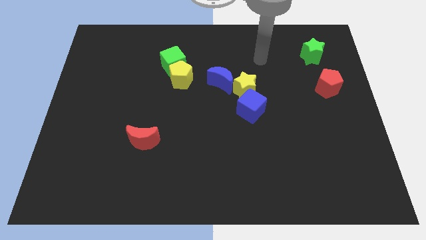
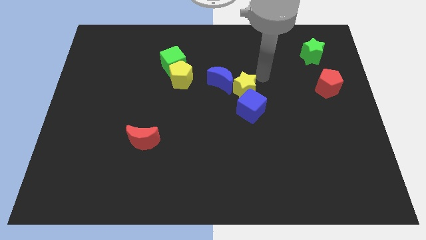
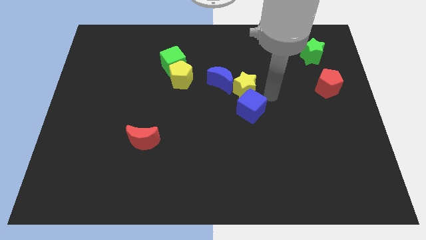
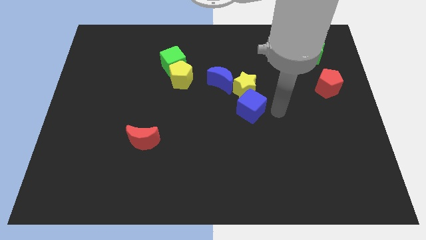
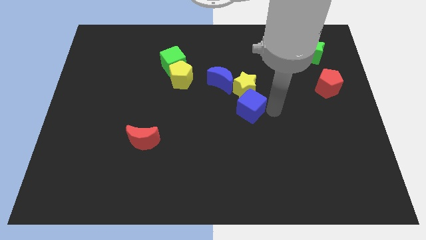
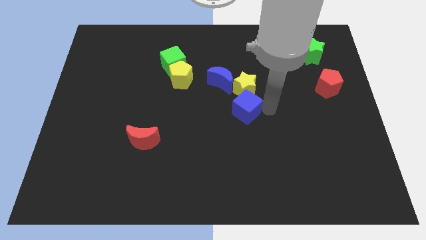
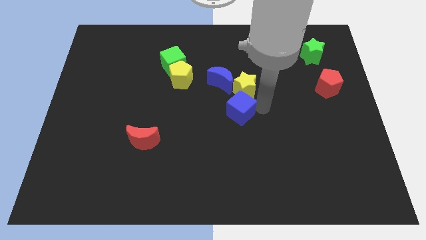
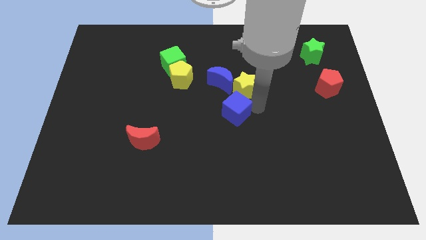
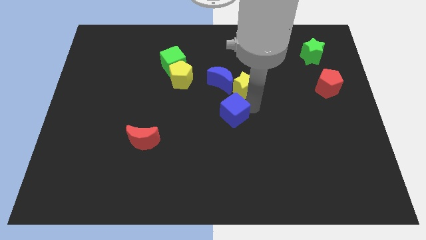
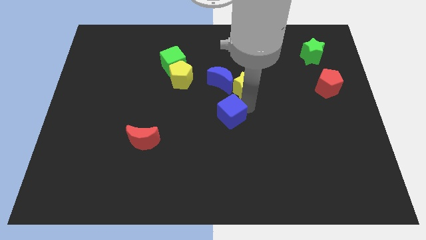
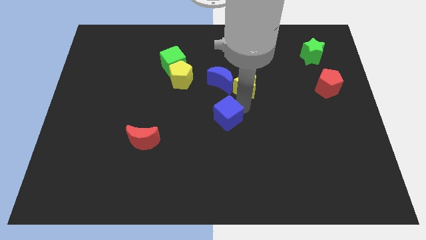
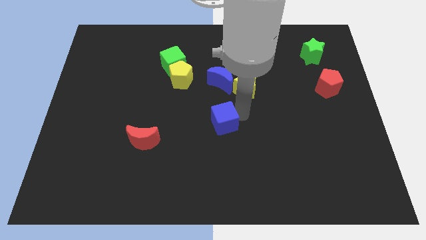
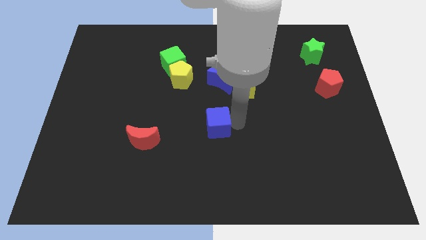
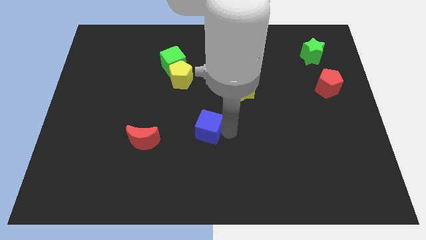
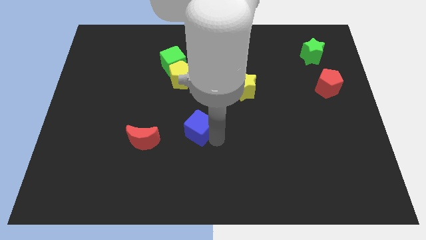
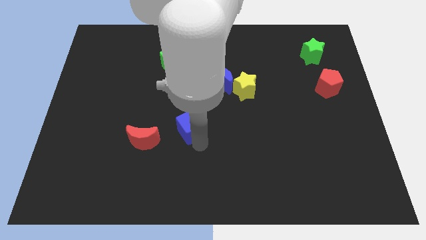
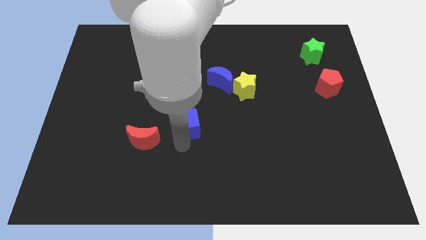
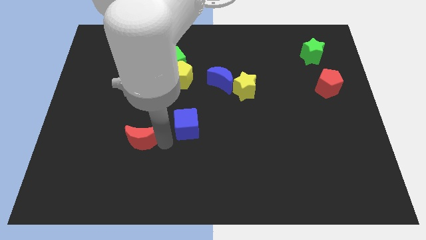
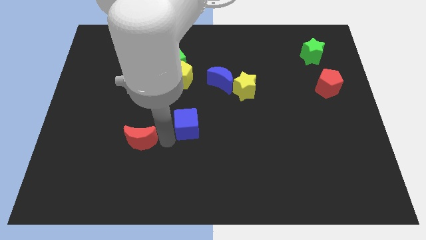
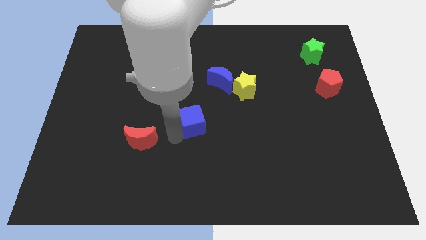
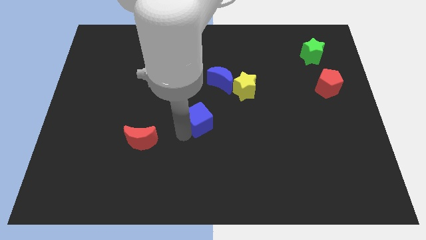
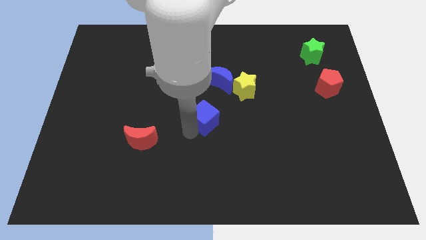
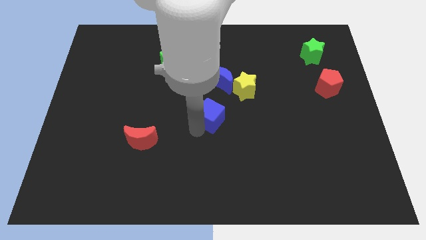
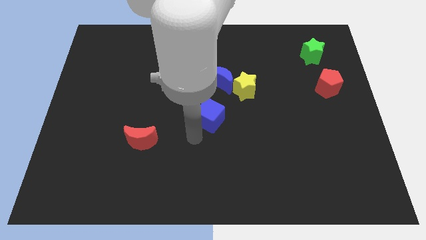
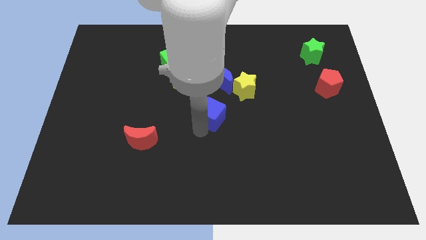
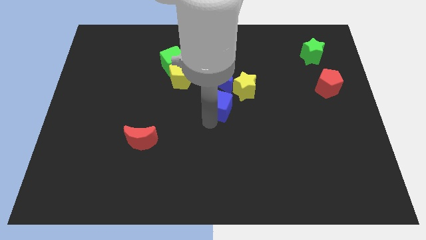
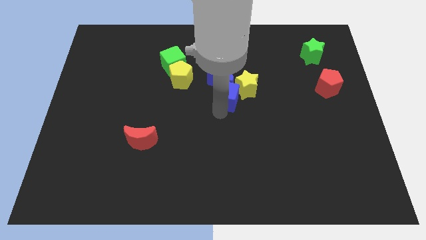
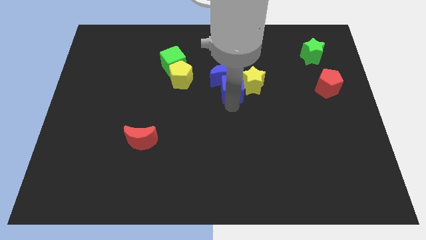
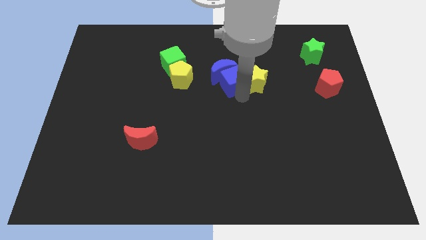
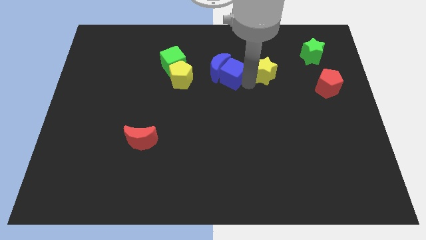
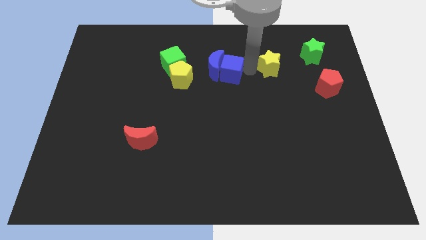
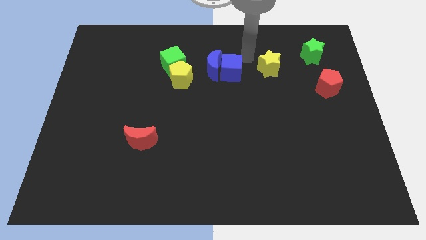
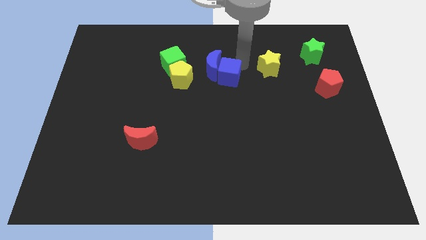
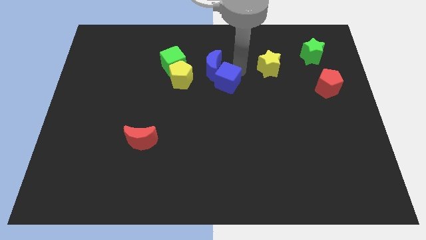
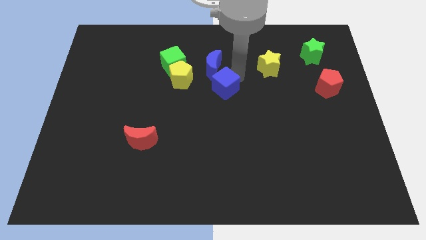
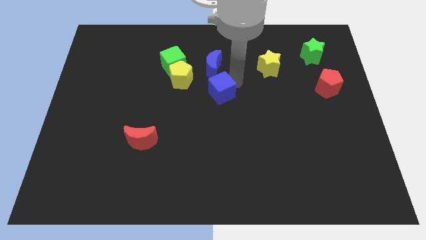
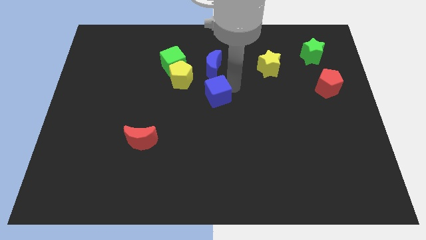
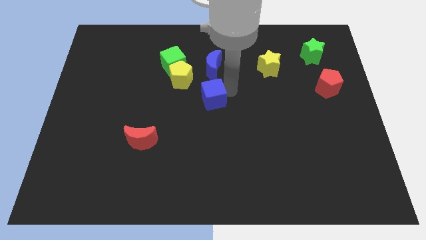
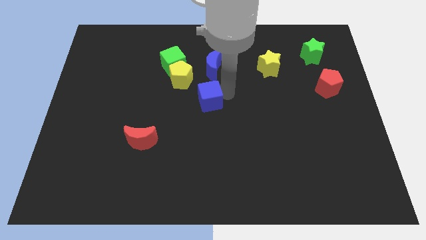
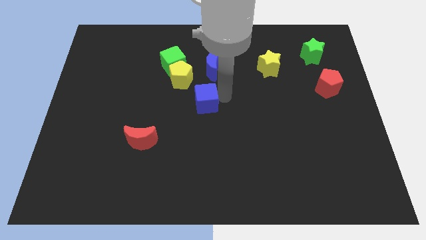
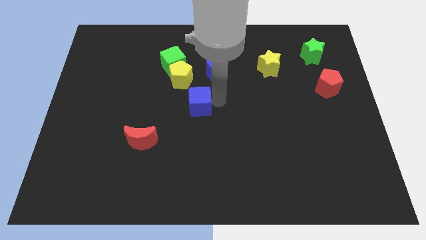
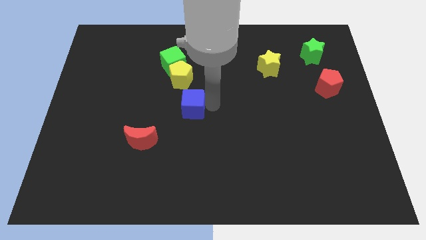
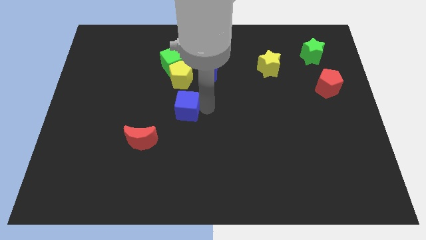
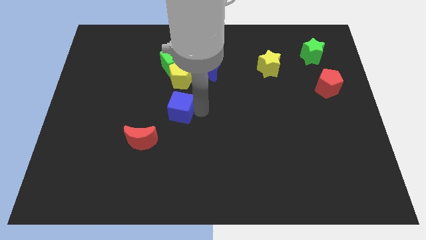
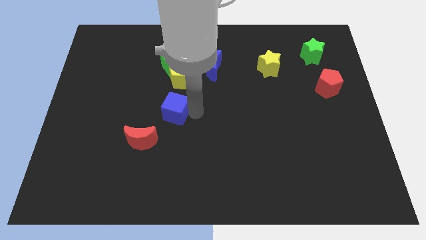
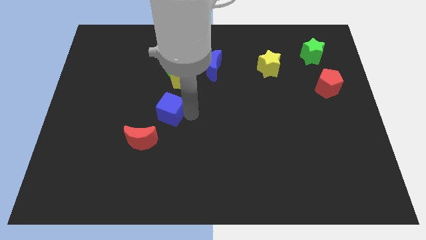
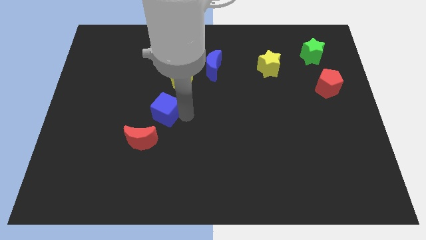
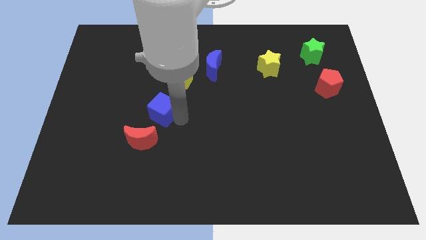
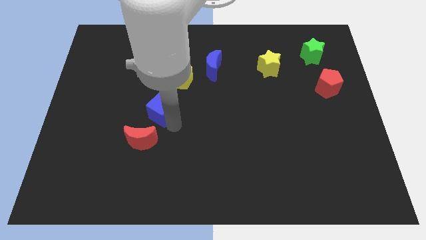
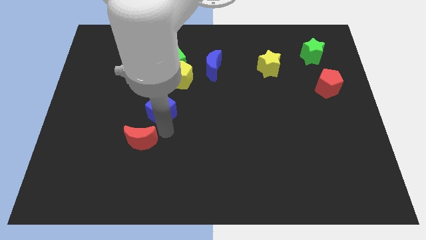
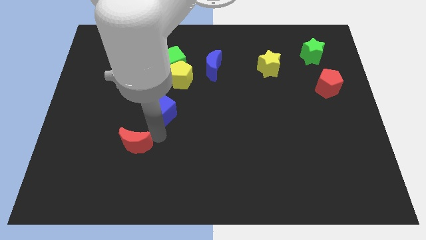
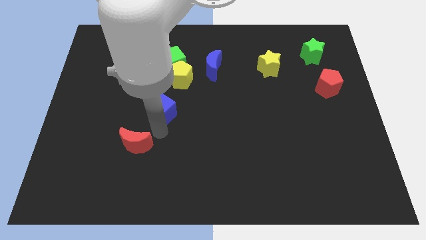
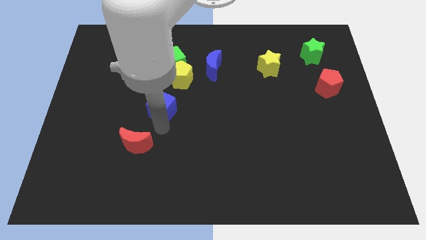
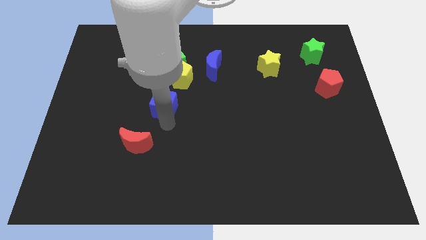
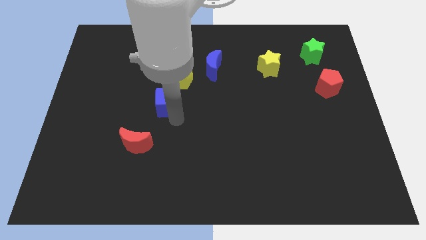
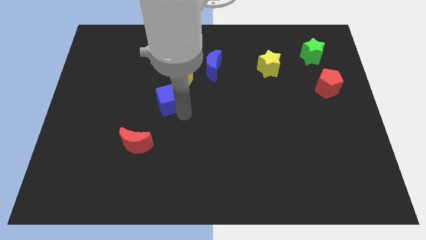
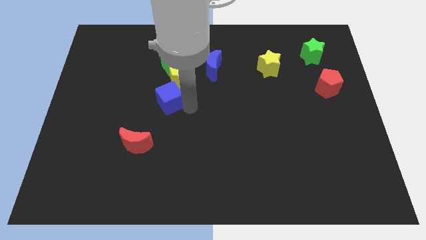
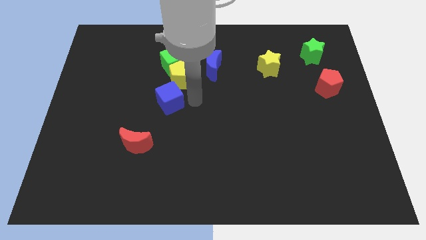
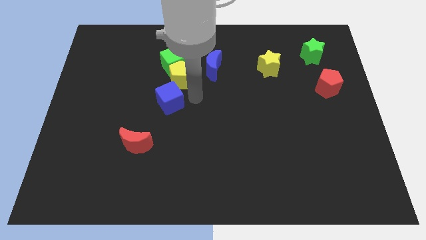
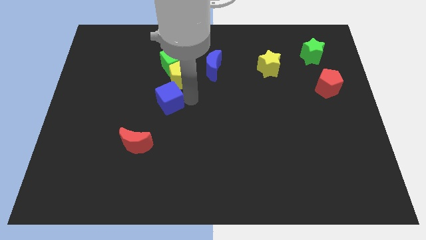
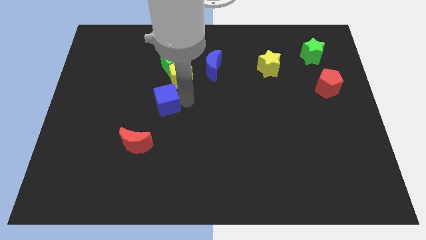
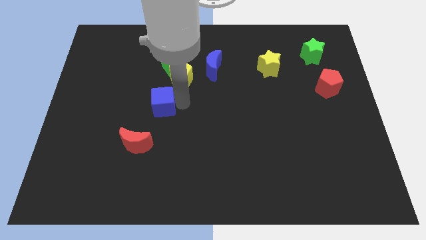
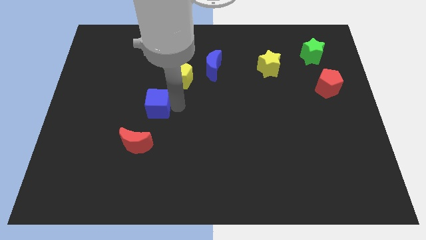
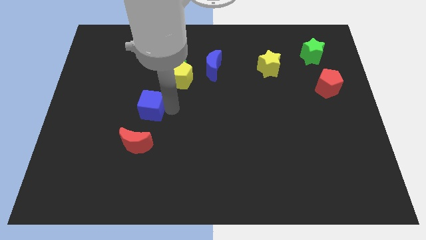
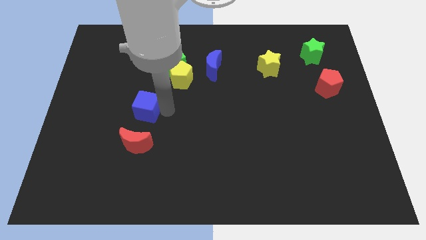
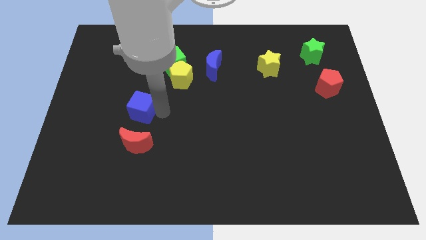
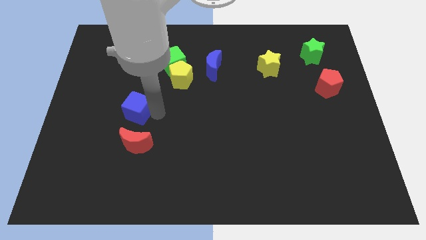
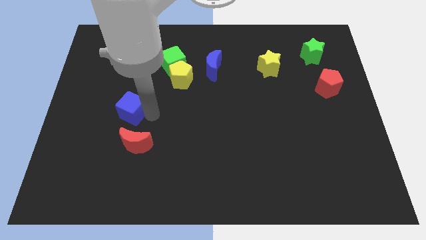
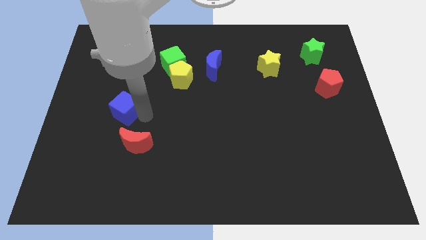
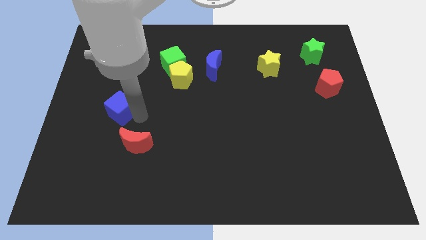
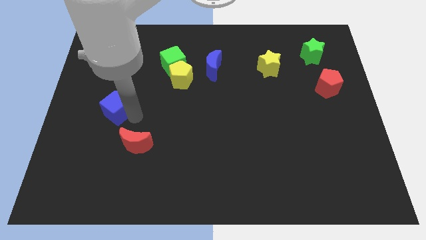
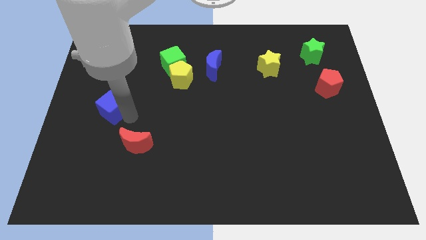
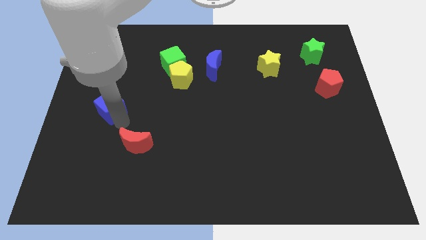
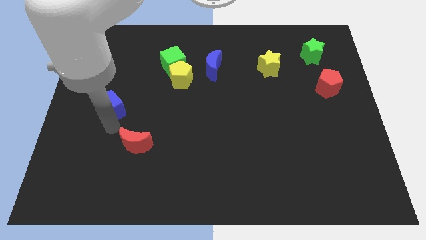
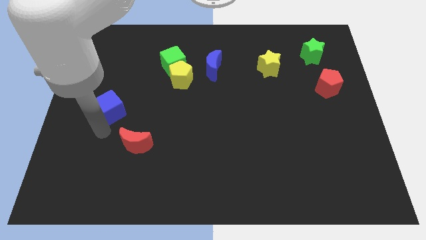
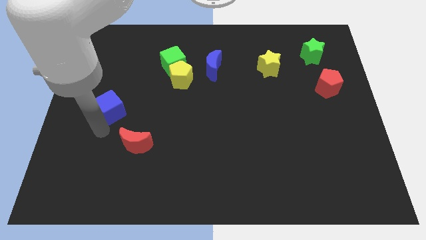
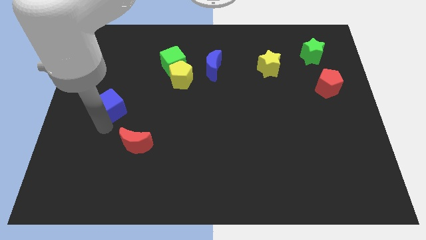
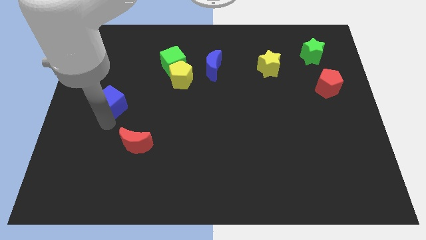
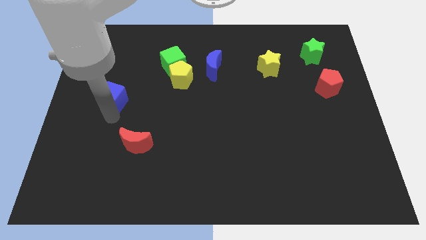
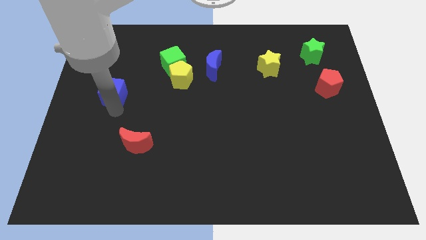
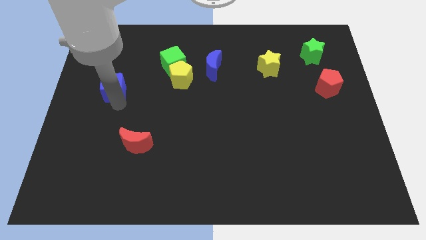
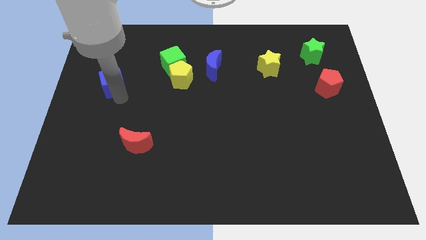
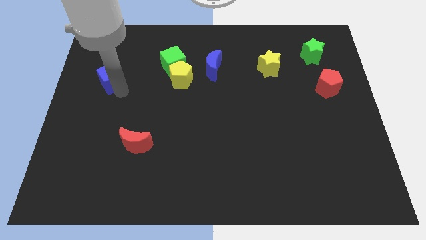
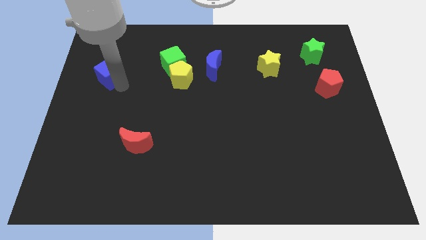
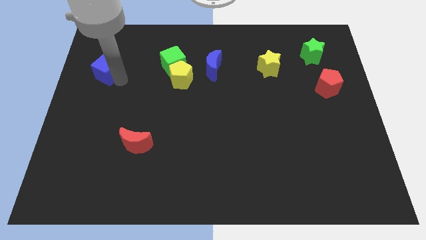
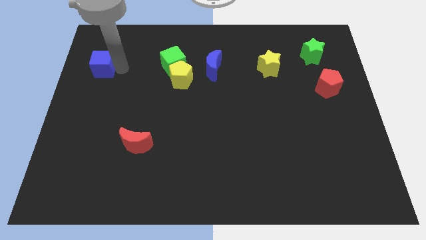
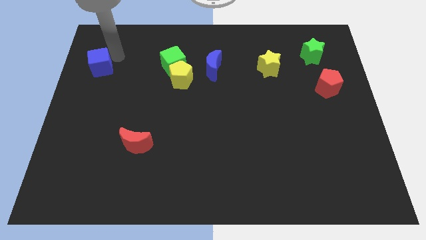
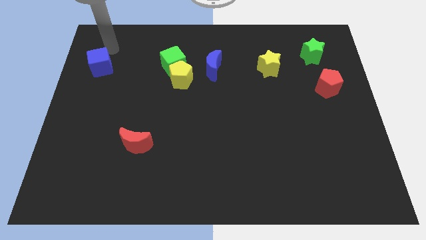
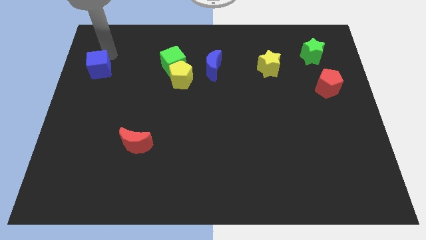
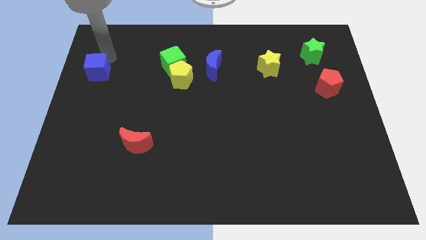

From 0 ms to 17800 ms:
put the blue cube to the left side
